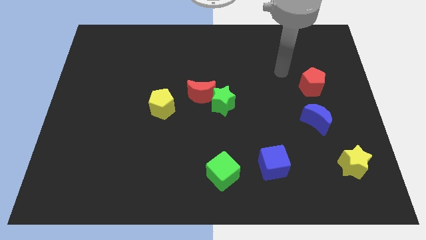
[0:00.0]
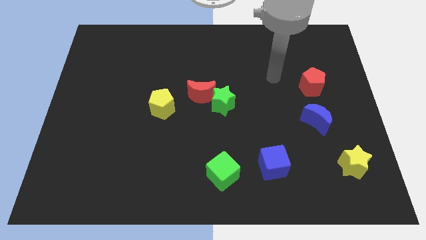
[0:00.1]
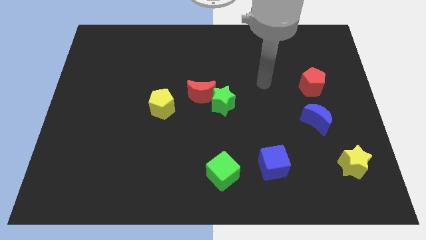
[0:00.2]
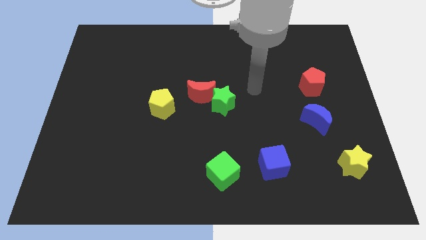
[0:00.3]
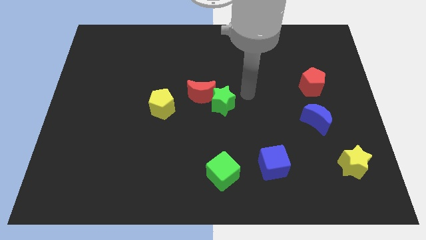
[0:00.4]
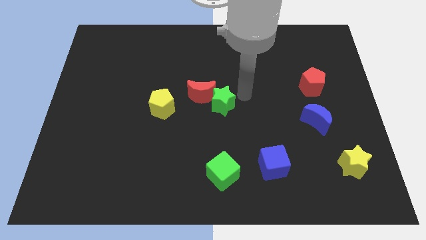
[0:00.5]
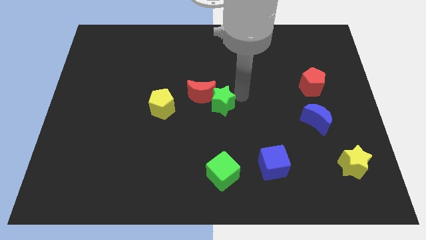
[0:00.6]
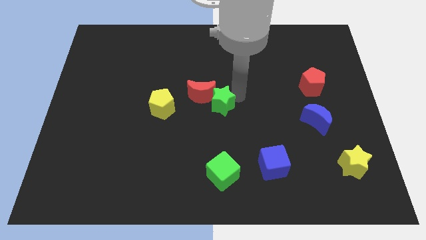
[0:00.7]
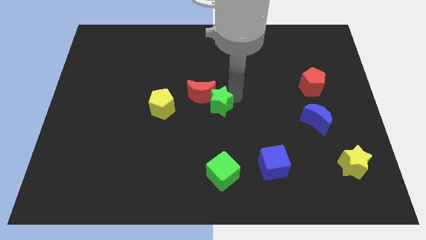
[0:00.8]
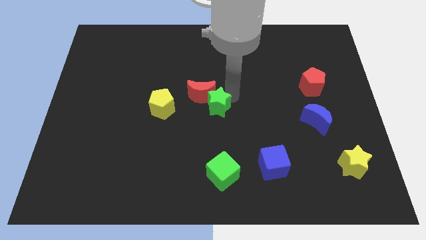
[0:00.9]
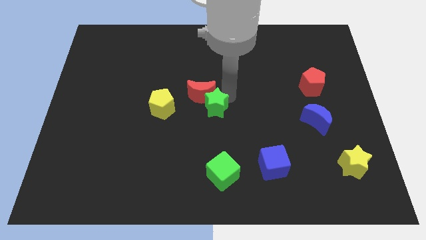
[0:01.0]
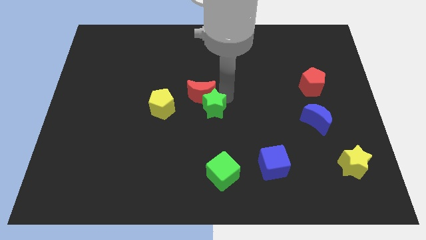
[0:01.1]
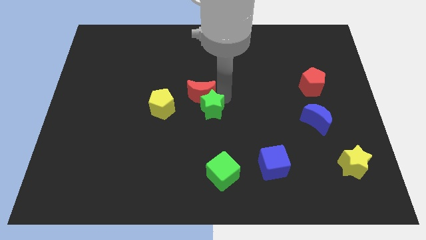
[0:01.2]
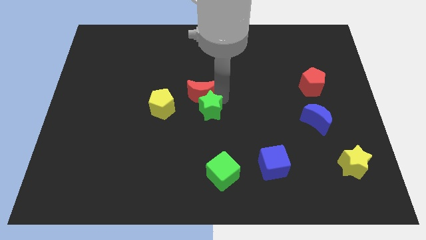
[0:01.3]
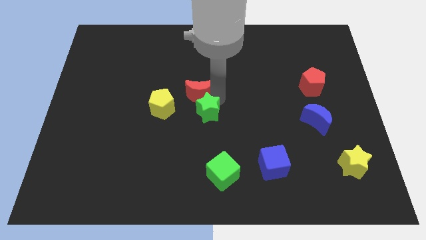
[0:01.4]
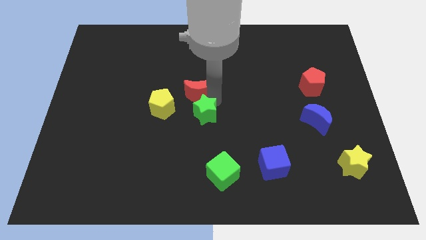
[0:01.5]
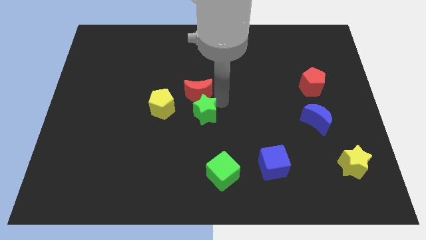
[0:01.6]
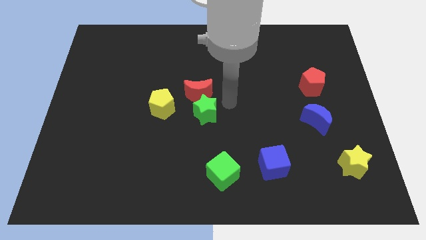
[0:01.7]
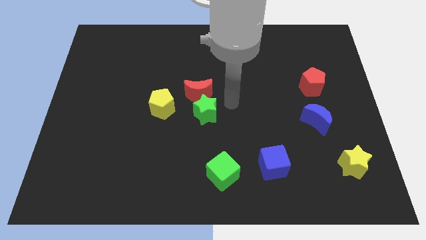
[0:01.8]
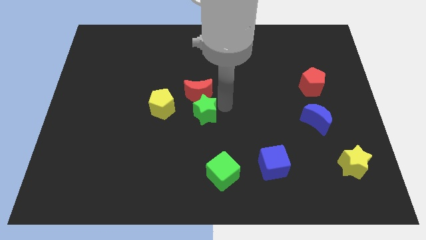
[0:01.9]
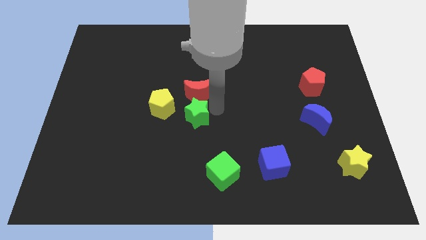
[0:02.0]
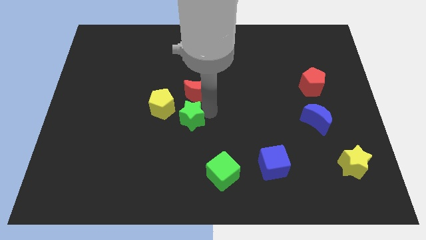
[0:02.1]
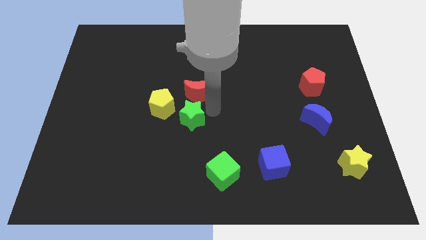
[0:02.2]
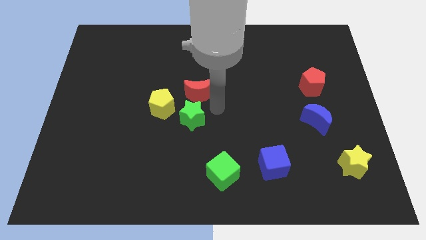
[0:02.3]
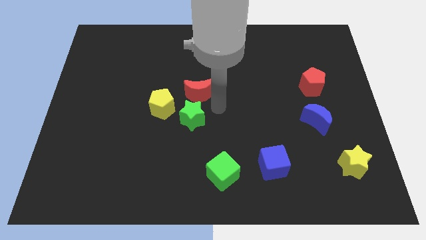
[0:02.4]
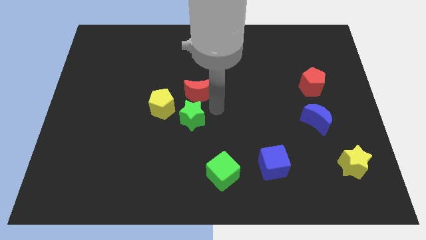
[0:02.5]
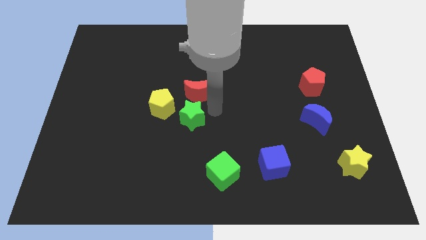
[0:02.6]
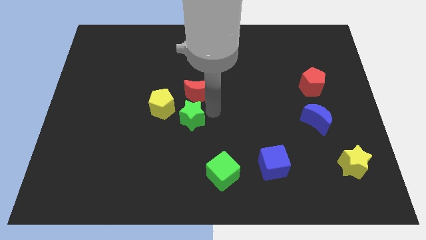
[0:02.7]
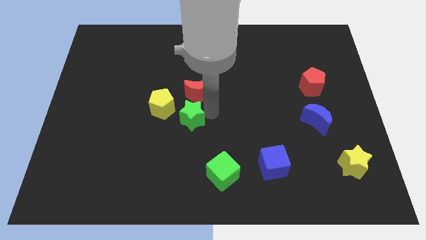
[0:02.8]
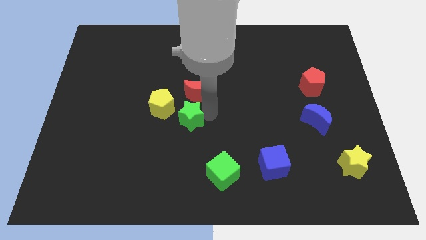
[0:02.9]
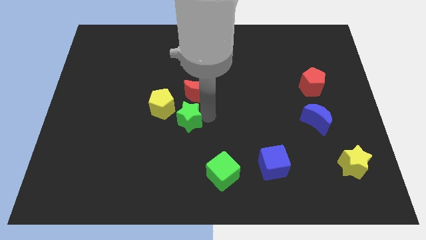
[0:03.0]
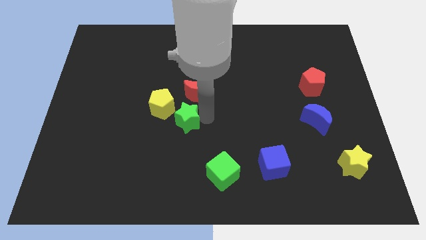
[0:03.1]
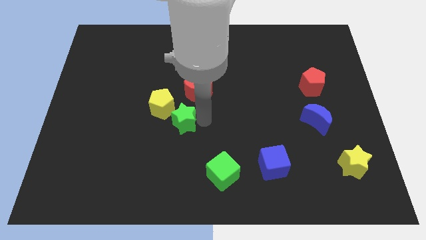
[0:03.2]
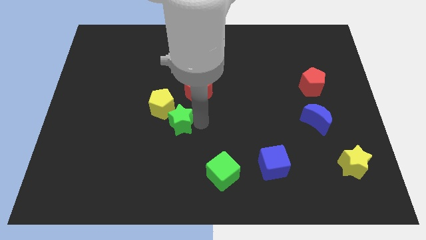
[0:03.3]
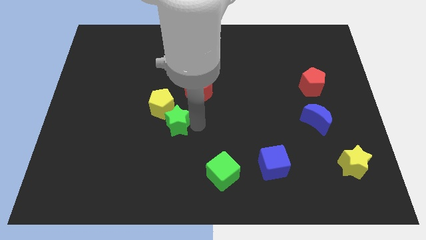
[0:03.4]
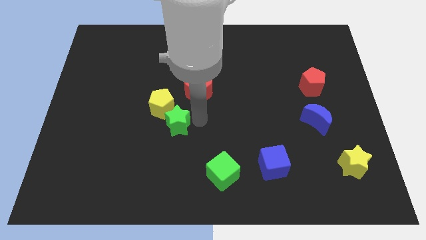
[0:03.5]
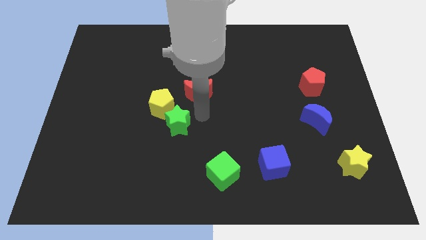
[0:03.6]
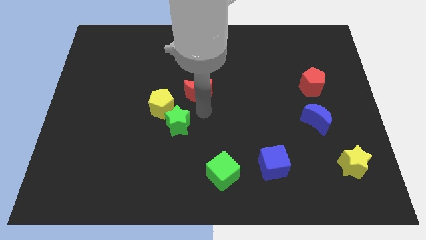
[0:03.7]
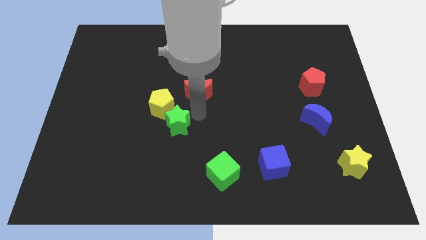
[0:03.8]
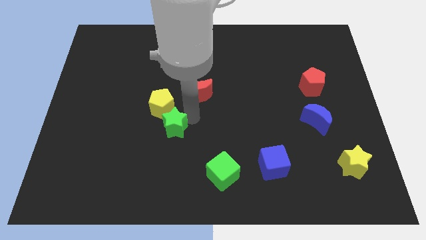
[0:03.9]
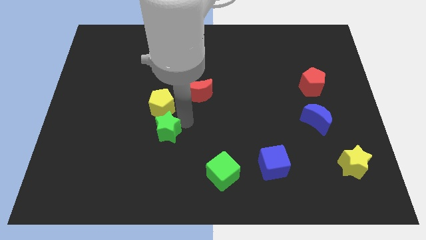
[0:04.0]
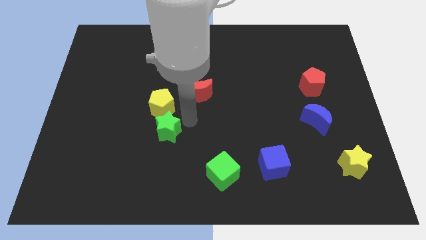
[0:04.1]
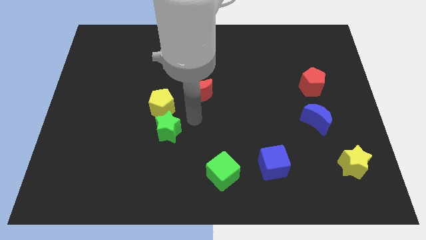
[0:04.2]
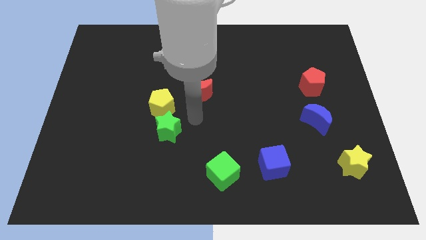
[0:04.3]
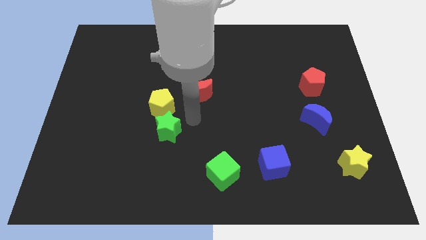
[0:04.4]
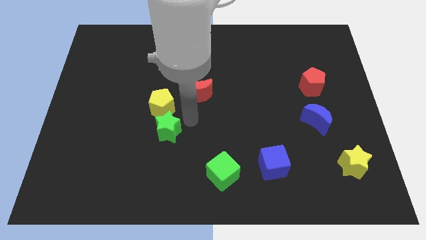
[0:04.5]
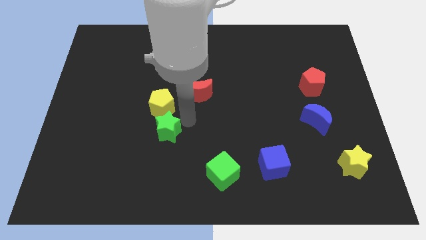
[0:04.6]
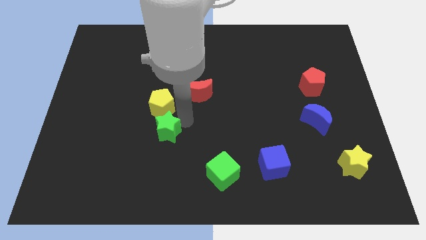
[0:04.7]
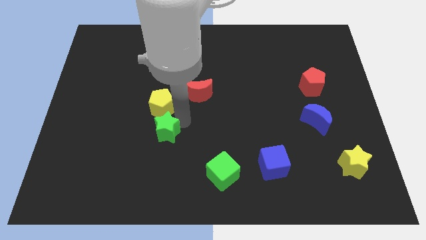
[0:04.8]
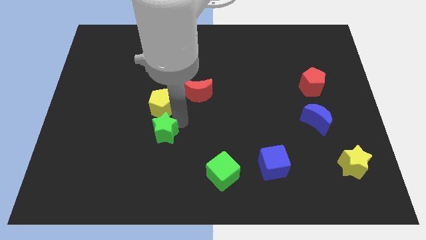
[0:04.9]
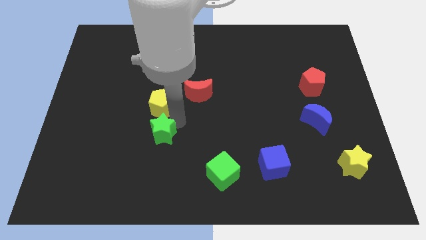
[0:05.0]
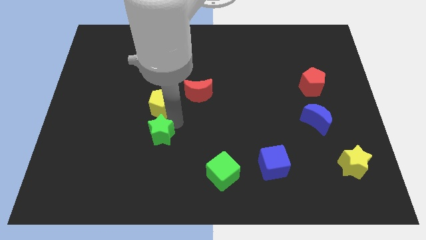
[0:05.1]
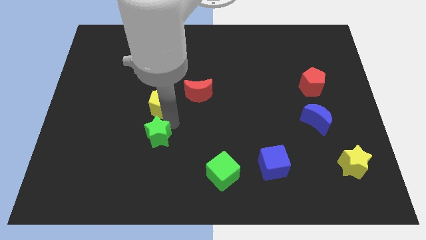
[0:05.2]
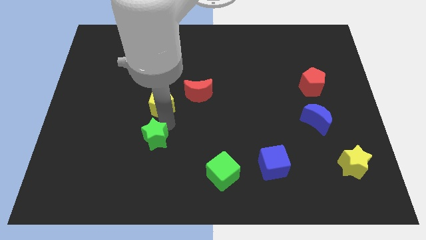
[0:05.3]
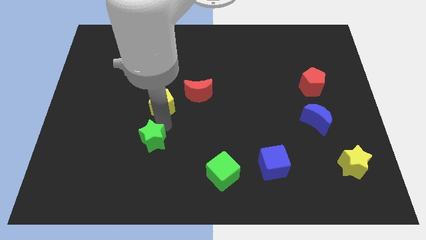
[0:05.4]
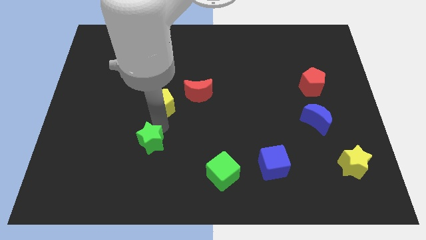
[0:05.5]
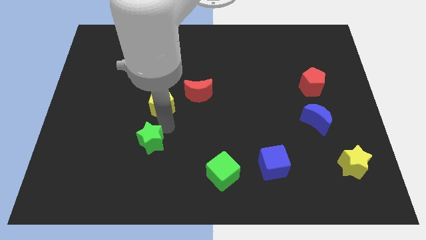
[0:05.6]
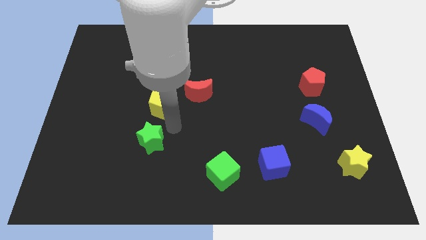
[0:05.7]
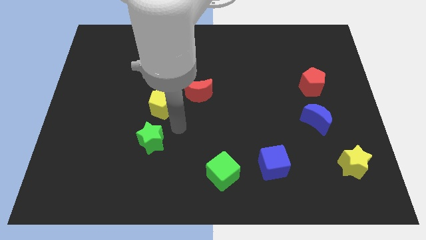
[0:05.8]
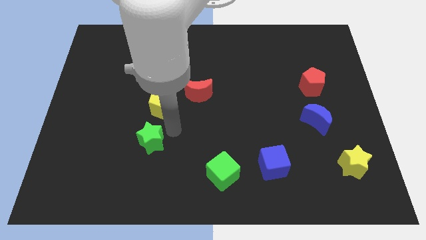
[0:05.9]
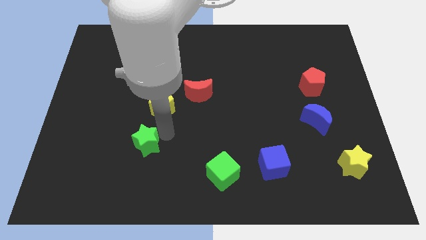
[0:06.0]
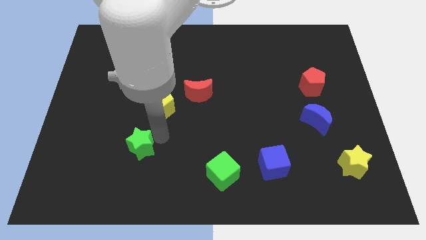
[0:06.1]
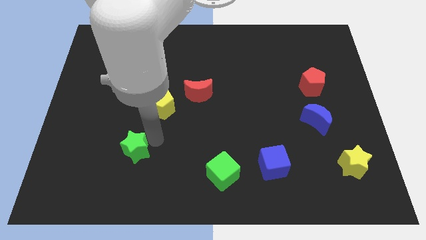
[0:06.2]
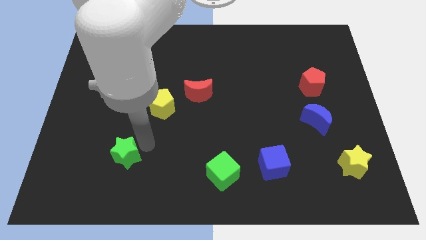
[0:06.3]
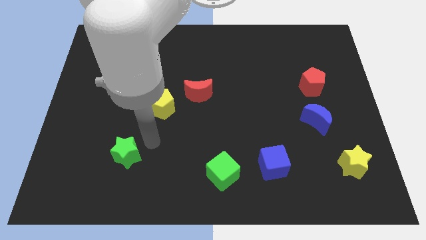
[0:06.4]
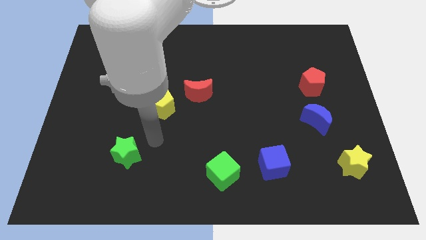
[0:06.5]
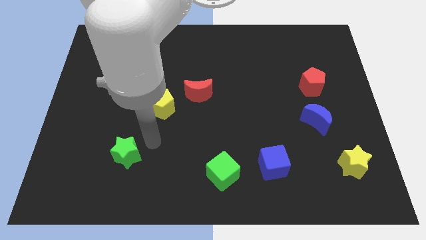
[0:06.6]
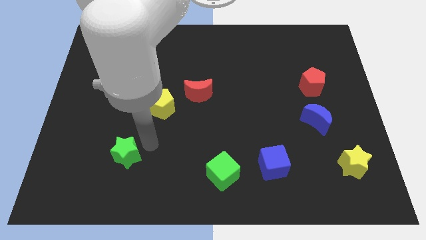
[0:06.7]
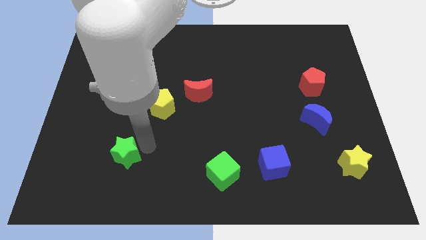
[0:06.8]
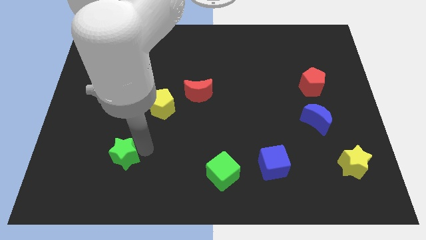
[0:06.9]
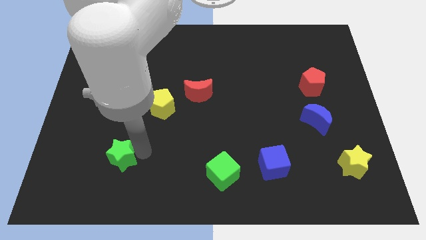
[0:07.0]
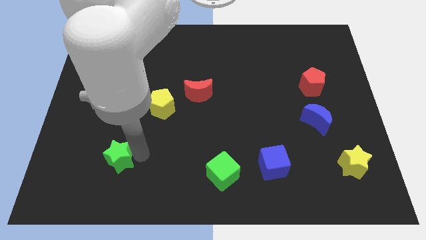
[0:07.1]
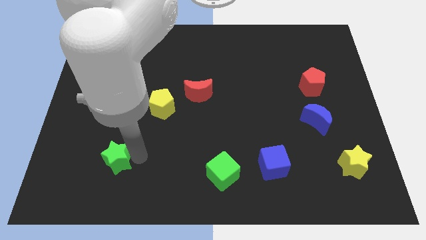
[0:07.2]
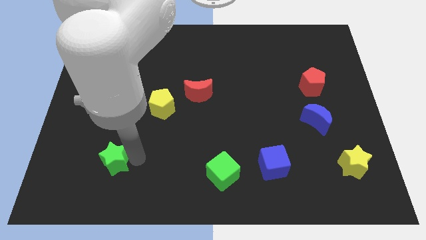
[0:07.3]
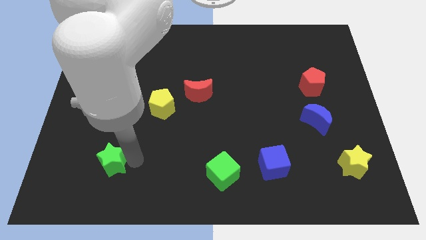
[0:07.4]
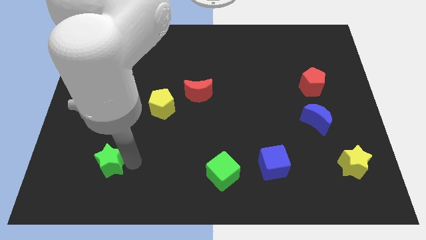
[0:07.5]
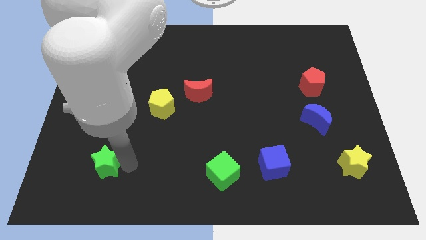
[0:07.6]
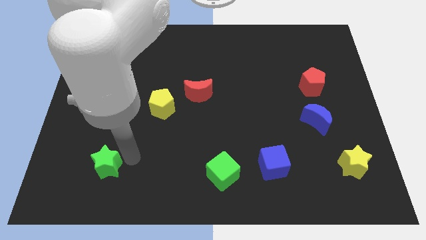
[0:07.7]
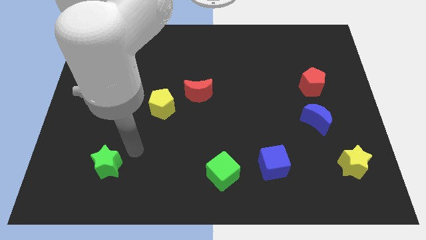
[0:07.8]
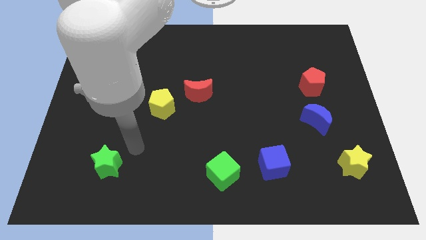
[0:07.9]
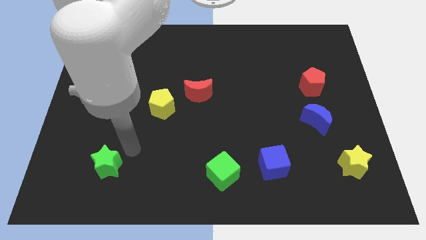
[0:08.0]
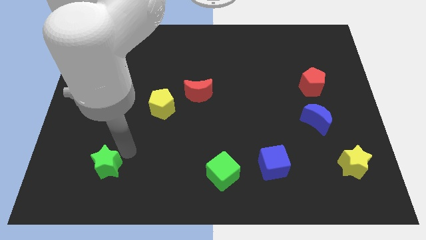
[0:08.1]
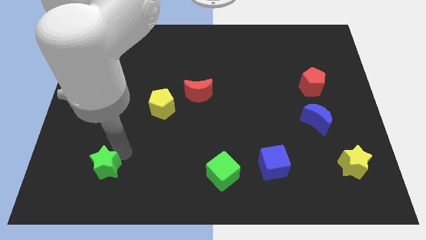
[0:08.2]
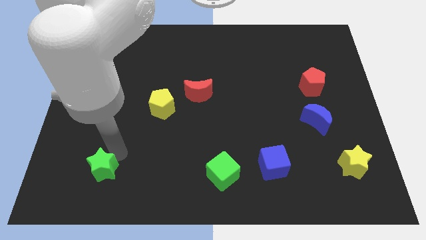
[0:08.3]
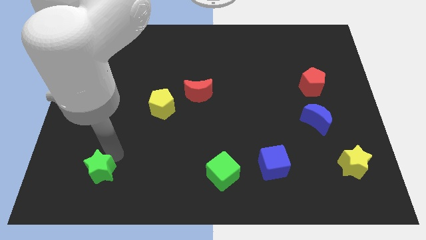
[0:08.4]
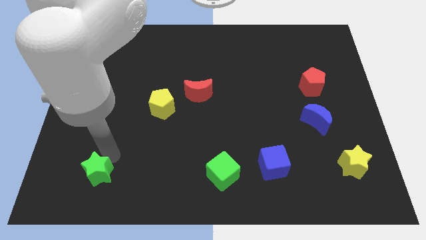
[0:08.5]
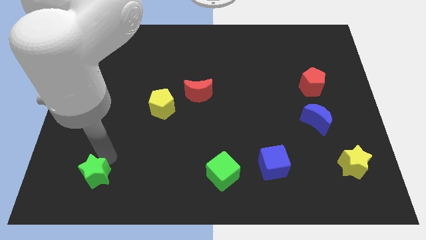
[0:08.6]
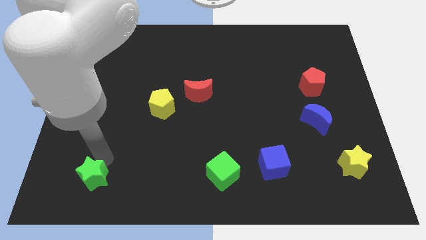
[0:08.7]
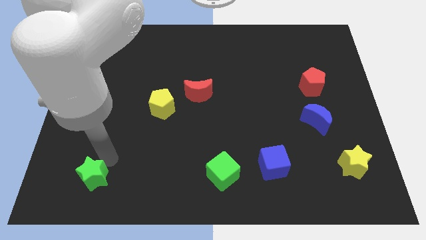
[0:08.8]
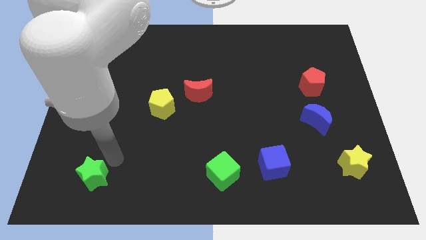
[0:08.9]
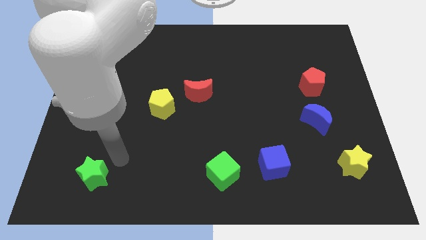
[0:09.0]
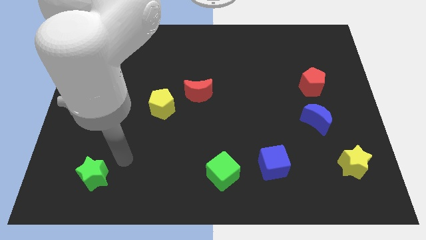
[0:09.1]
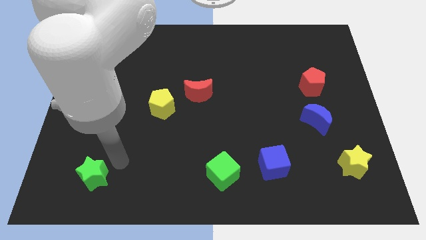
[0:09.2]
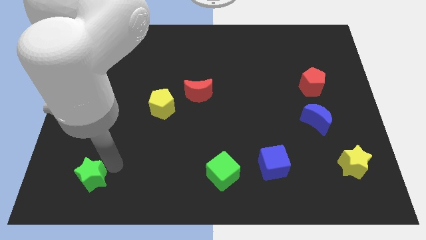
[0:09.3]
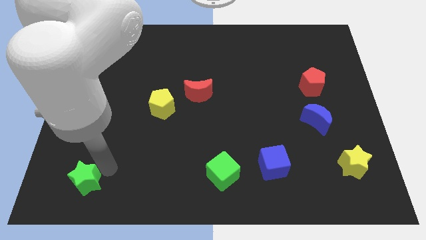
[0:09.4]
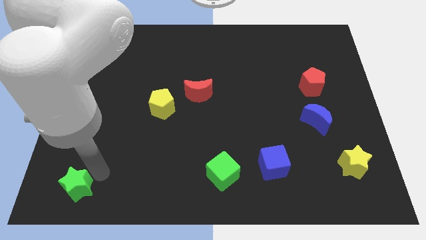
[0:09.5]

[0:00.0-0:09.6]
slide the green star to the bottom left of the board
